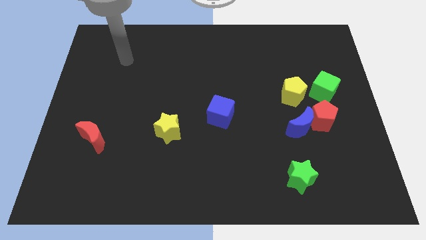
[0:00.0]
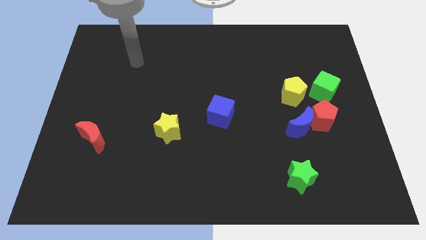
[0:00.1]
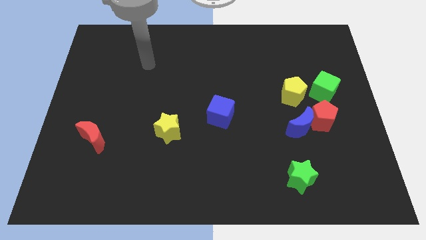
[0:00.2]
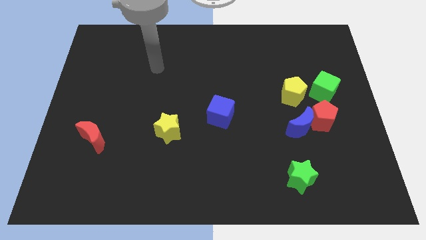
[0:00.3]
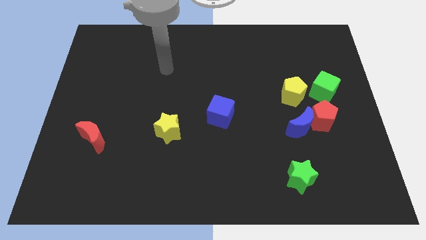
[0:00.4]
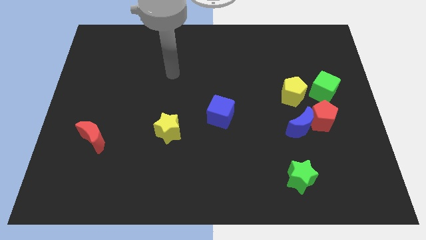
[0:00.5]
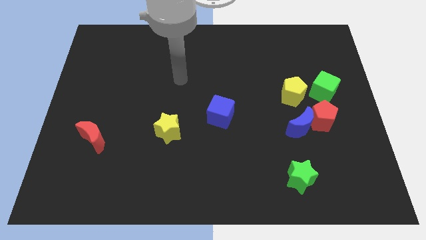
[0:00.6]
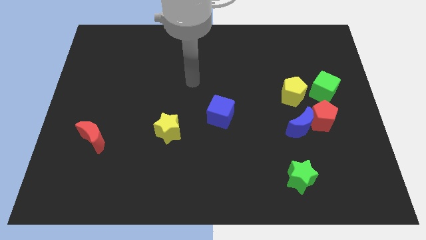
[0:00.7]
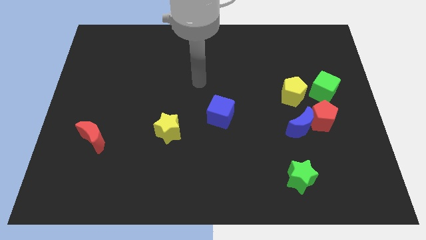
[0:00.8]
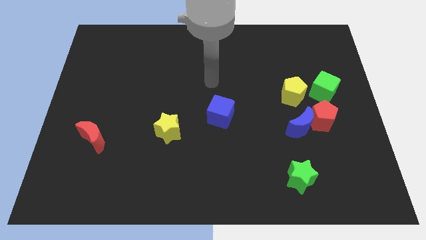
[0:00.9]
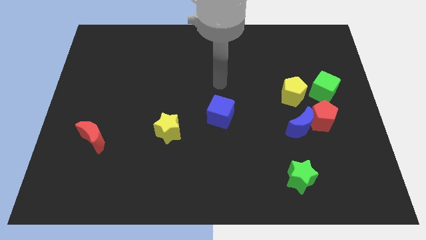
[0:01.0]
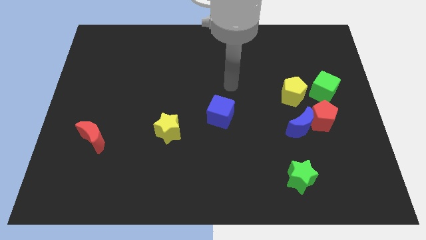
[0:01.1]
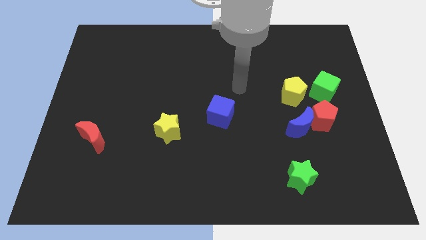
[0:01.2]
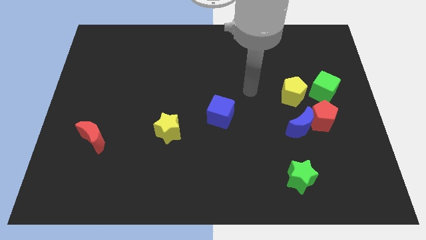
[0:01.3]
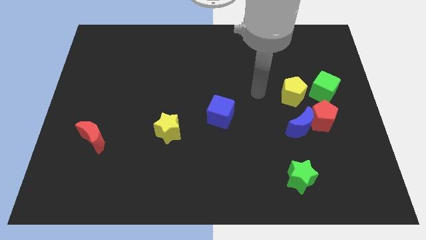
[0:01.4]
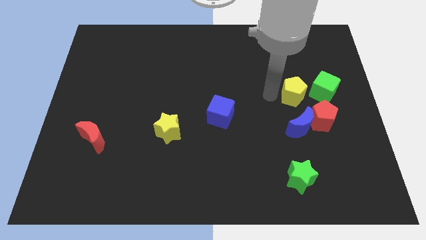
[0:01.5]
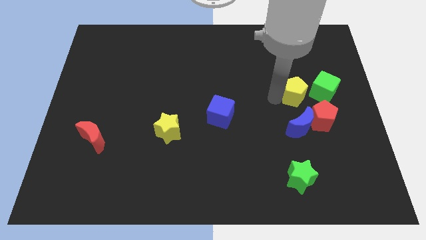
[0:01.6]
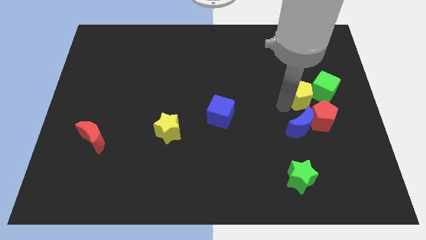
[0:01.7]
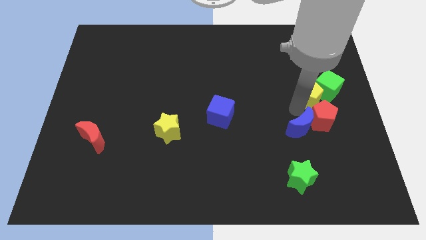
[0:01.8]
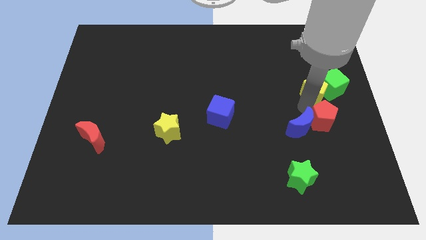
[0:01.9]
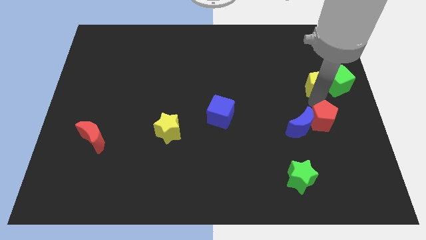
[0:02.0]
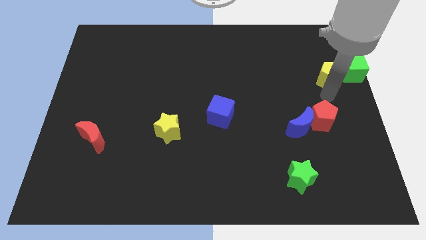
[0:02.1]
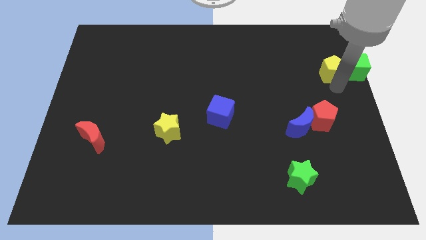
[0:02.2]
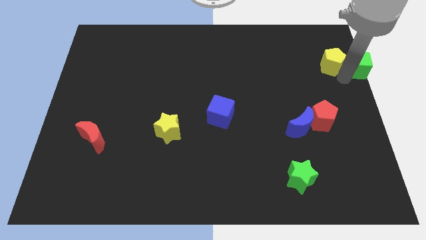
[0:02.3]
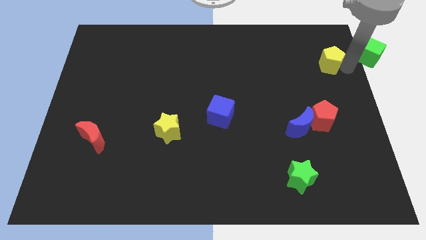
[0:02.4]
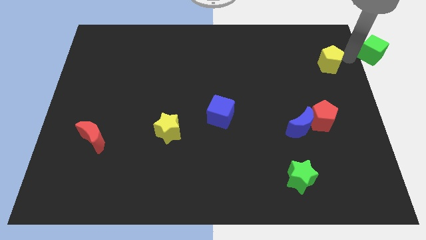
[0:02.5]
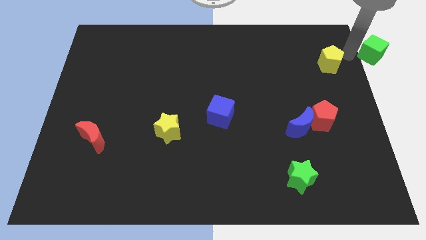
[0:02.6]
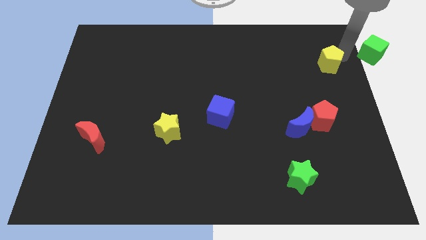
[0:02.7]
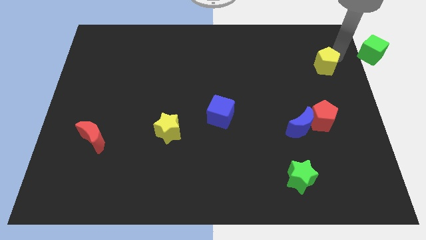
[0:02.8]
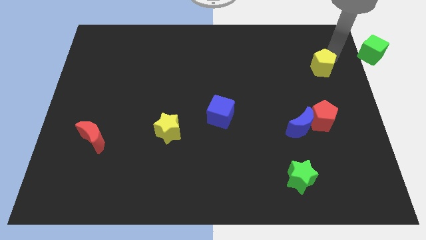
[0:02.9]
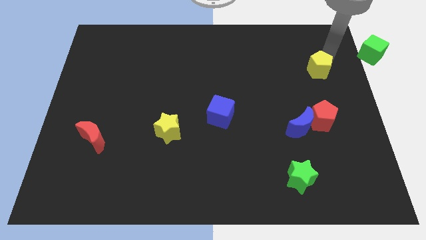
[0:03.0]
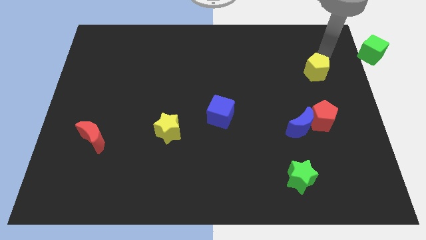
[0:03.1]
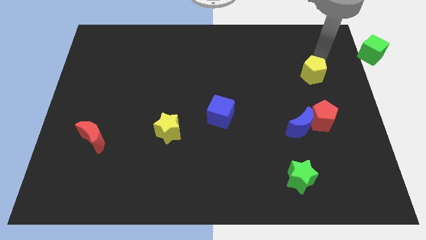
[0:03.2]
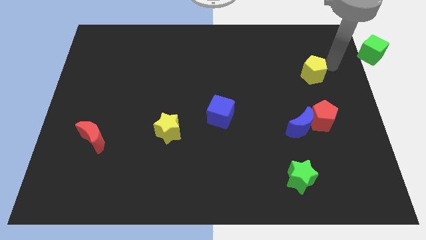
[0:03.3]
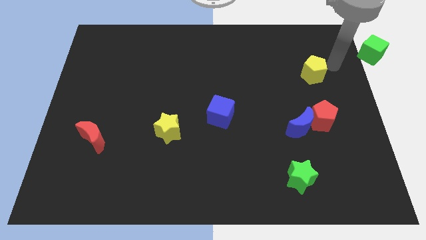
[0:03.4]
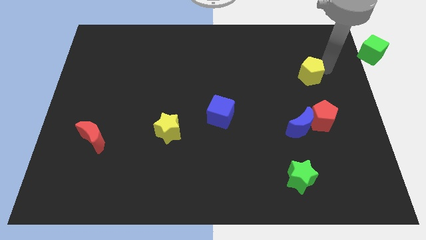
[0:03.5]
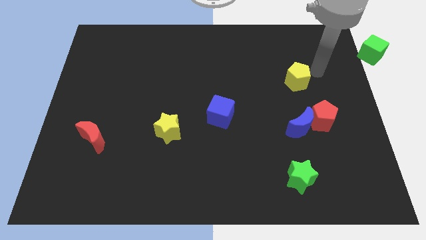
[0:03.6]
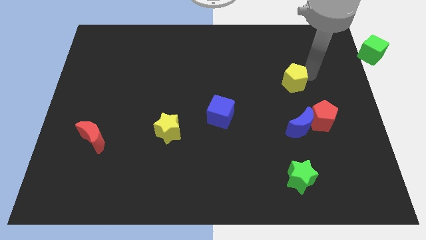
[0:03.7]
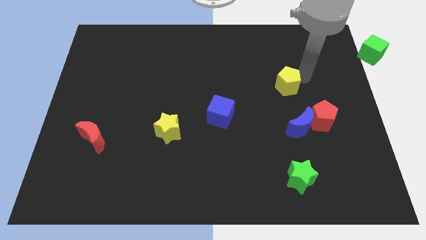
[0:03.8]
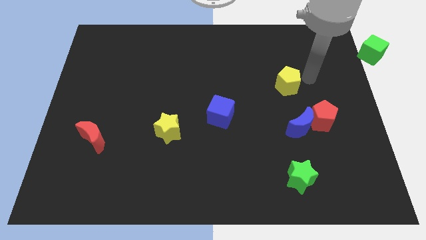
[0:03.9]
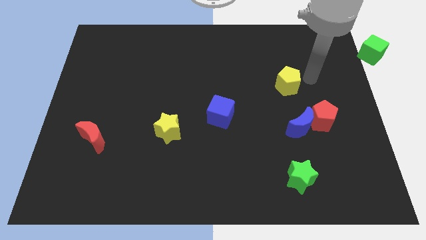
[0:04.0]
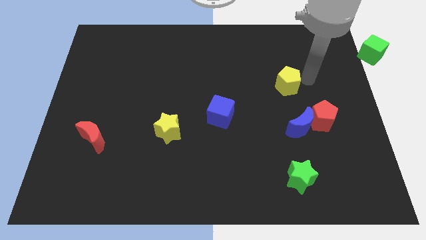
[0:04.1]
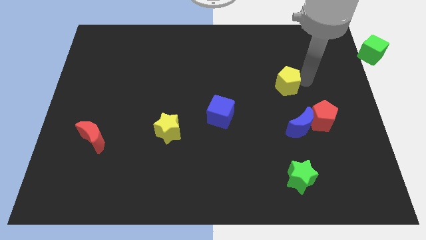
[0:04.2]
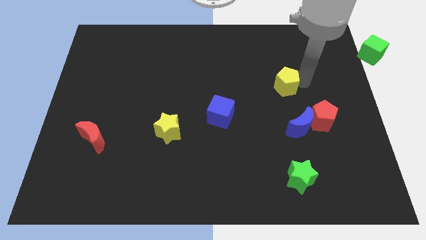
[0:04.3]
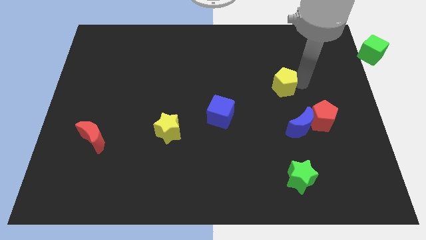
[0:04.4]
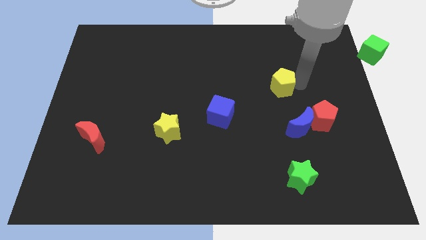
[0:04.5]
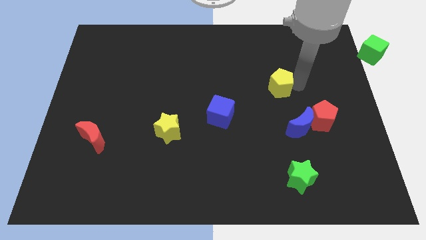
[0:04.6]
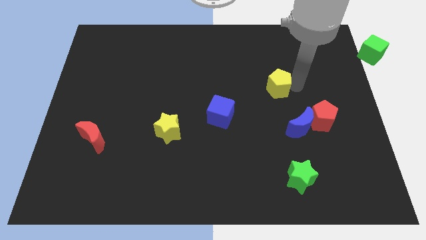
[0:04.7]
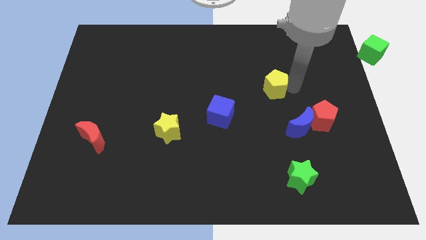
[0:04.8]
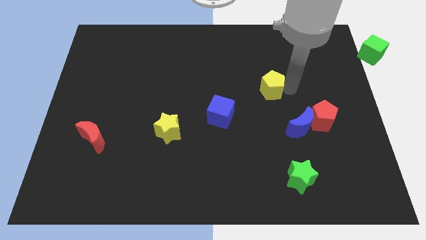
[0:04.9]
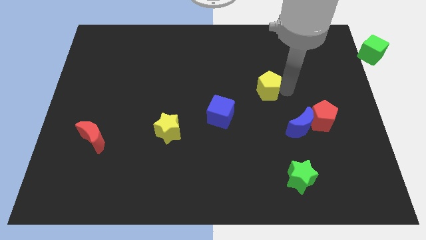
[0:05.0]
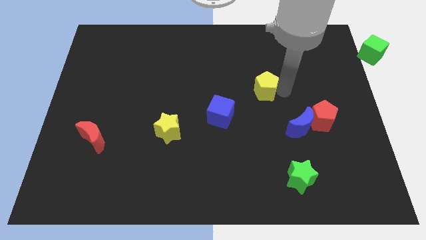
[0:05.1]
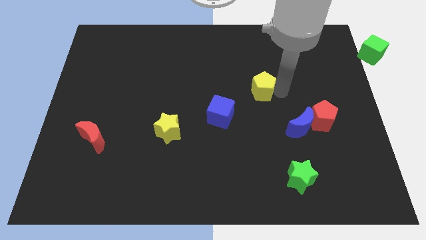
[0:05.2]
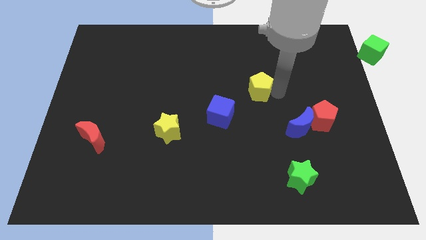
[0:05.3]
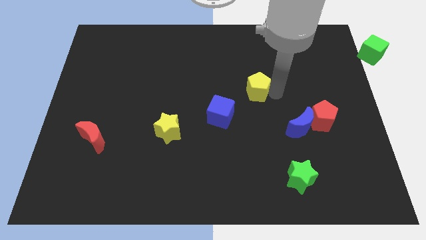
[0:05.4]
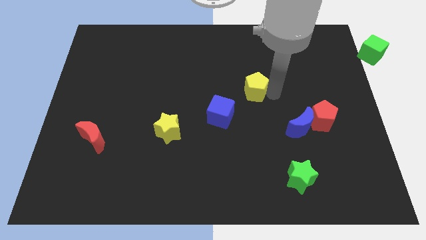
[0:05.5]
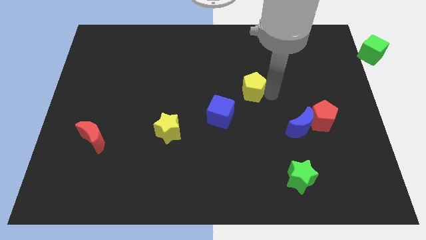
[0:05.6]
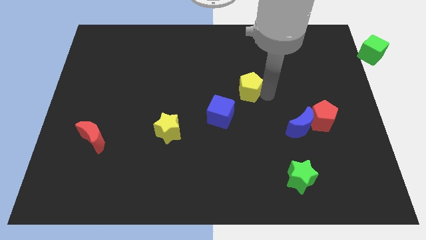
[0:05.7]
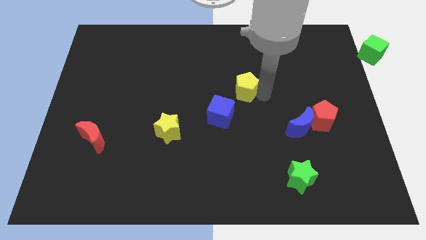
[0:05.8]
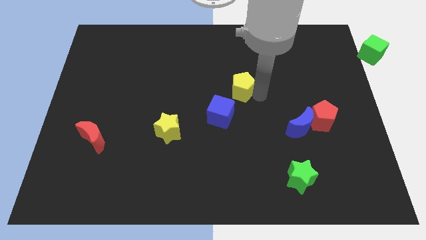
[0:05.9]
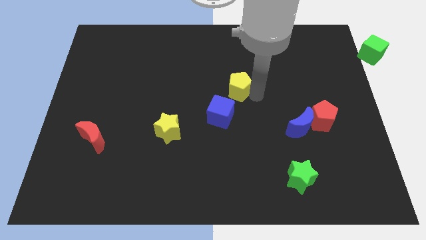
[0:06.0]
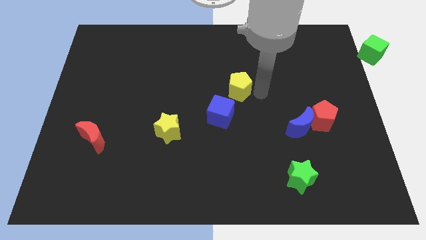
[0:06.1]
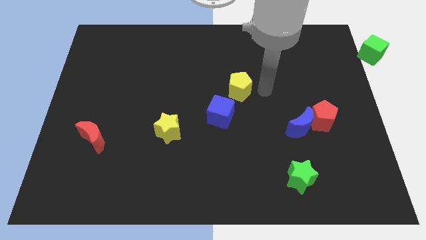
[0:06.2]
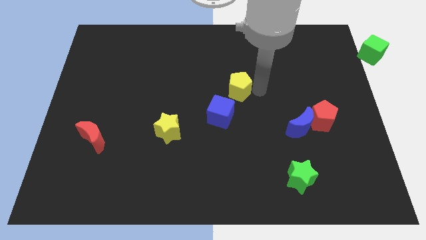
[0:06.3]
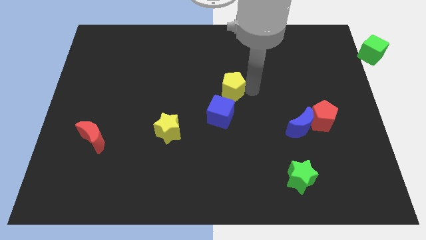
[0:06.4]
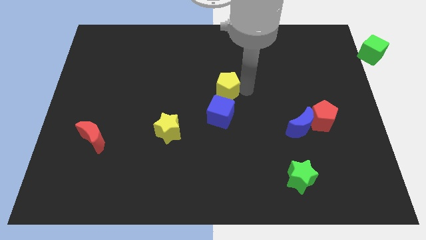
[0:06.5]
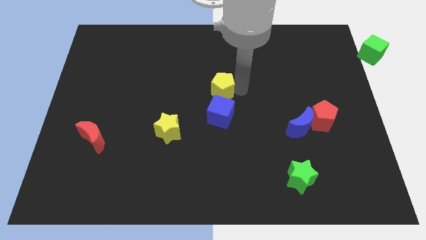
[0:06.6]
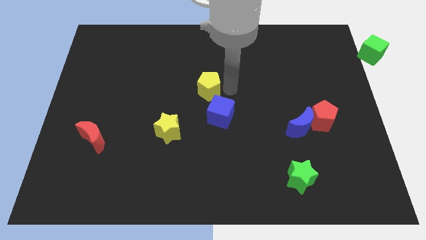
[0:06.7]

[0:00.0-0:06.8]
push the yellow pentagon left

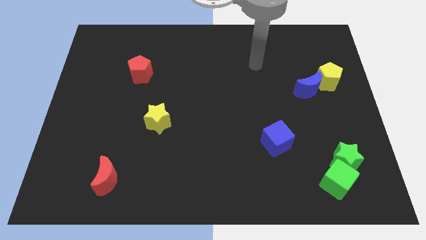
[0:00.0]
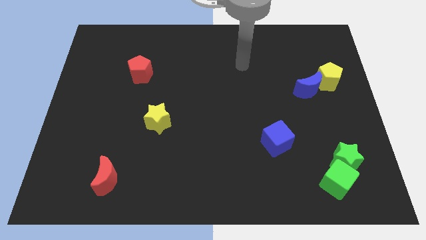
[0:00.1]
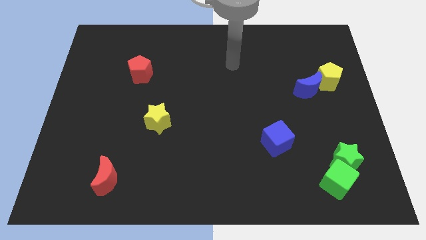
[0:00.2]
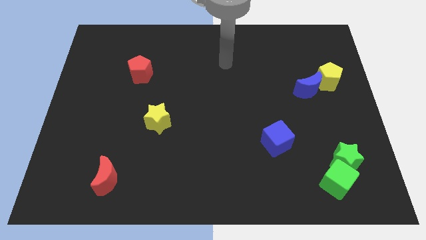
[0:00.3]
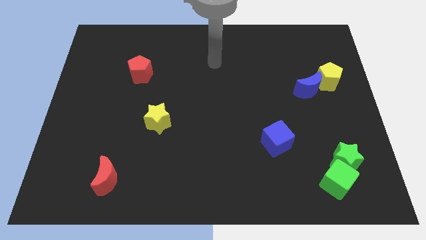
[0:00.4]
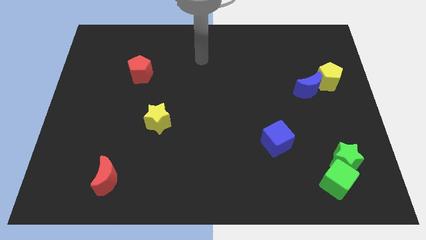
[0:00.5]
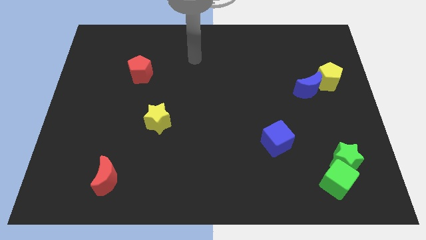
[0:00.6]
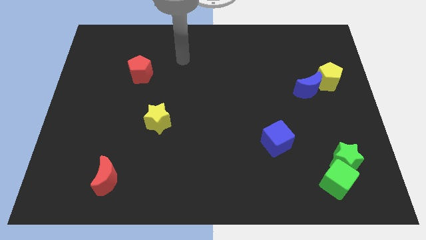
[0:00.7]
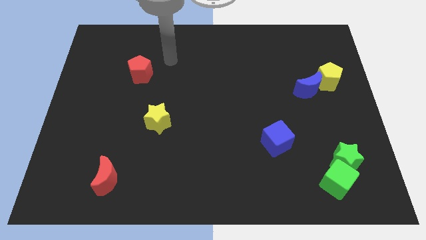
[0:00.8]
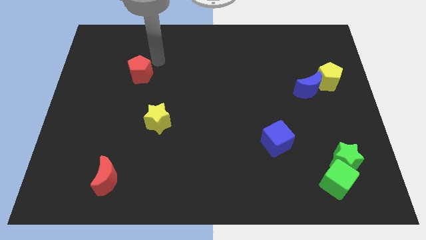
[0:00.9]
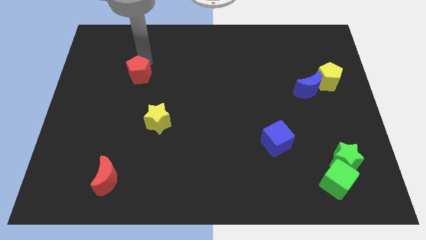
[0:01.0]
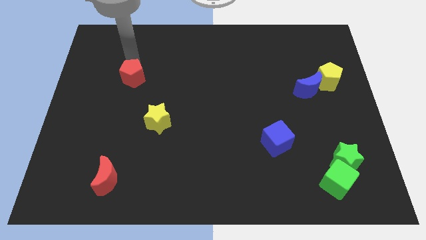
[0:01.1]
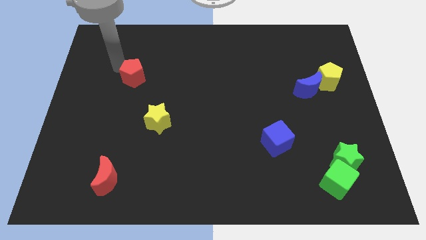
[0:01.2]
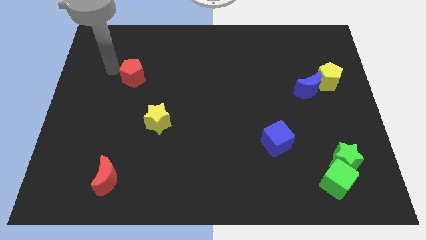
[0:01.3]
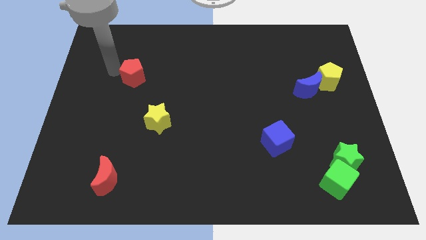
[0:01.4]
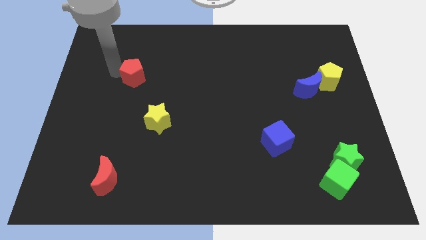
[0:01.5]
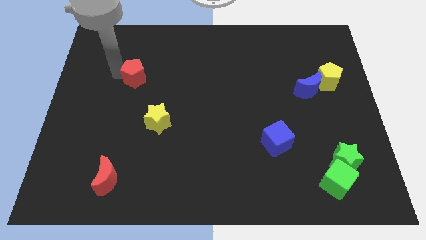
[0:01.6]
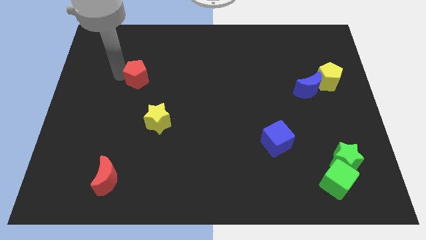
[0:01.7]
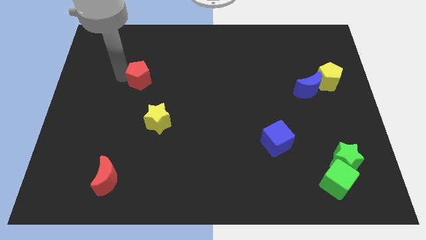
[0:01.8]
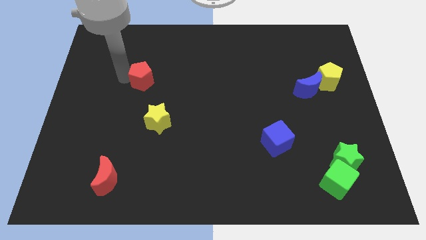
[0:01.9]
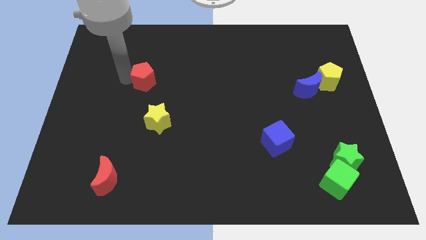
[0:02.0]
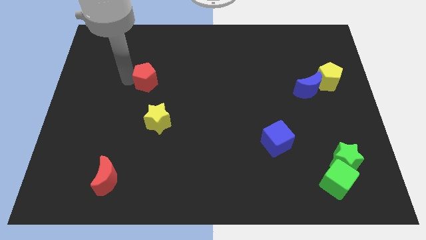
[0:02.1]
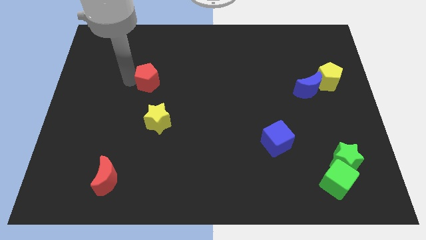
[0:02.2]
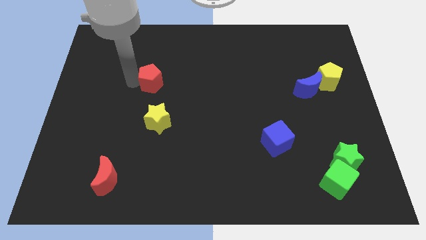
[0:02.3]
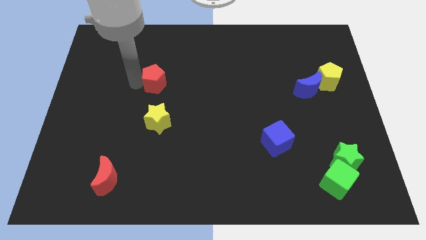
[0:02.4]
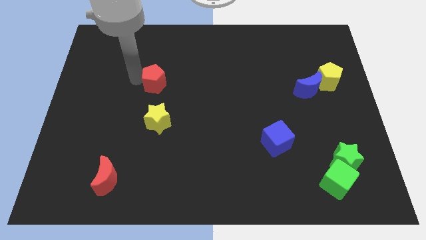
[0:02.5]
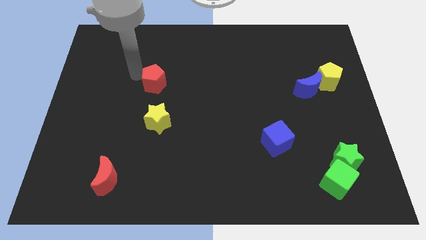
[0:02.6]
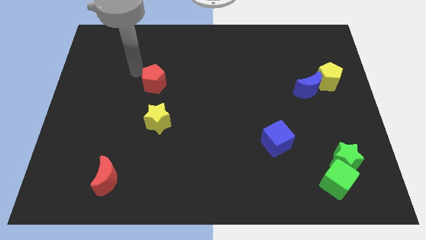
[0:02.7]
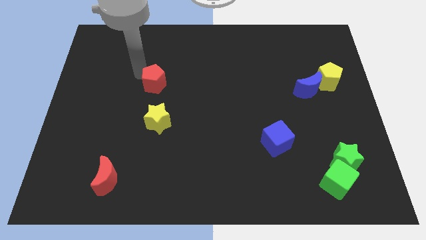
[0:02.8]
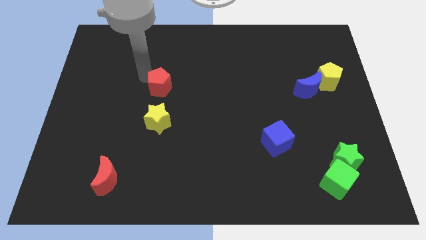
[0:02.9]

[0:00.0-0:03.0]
slightly push the red pentagon downwards and right diagonally
